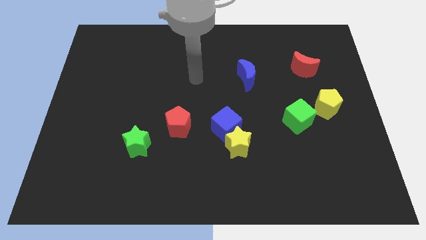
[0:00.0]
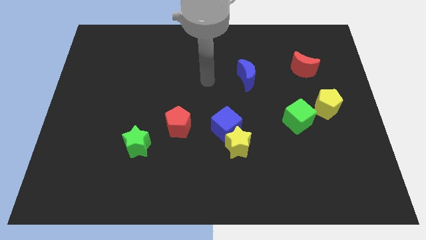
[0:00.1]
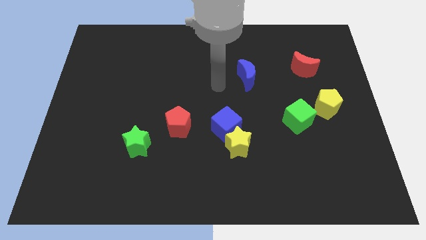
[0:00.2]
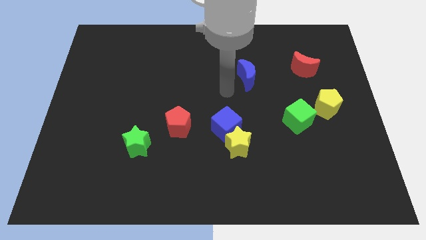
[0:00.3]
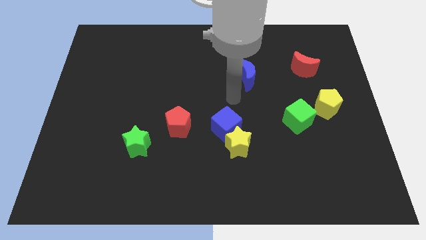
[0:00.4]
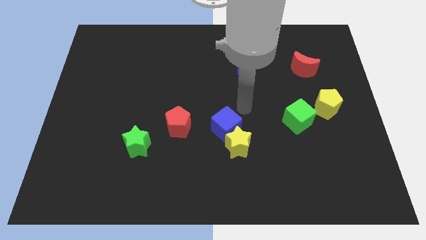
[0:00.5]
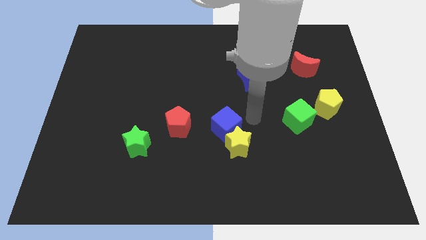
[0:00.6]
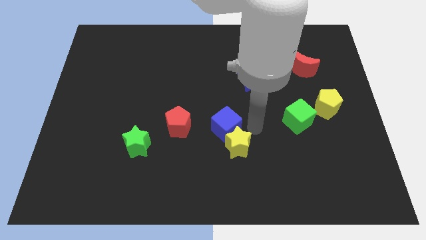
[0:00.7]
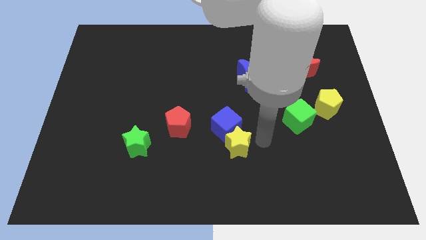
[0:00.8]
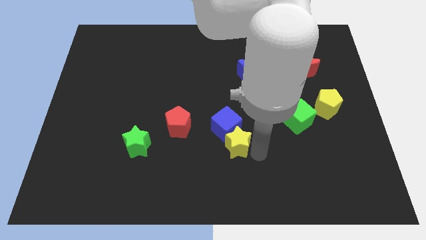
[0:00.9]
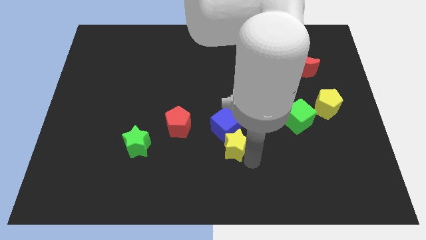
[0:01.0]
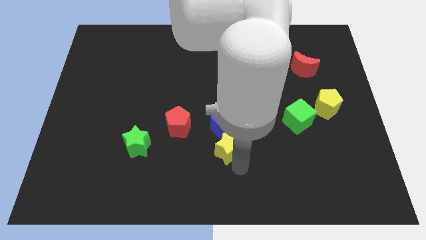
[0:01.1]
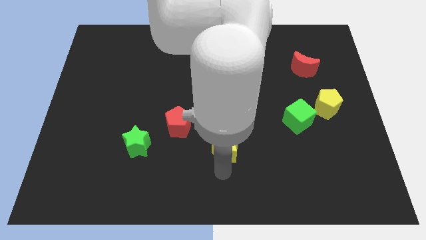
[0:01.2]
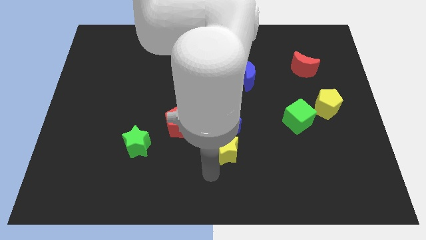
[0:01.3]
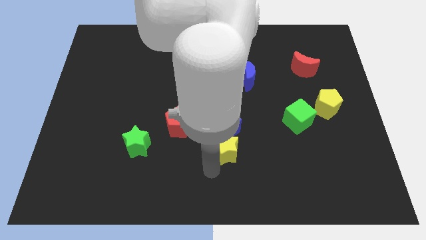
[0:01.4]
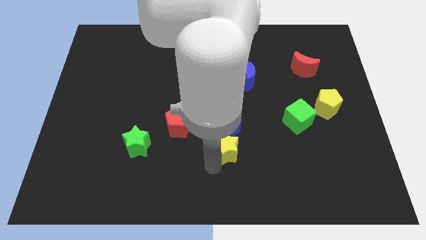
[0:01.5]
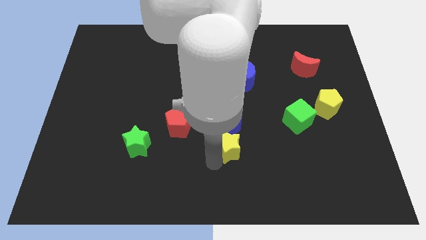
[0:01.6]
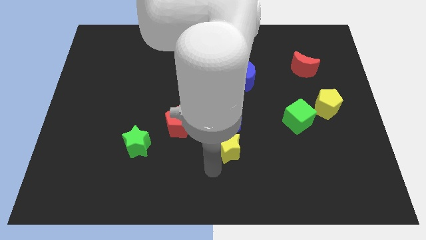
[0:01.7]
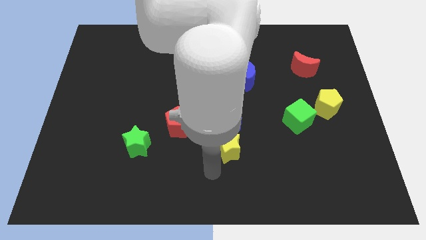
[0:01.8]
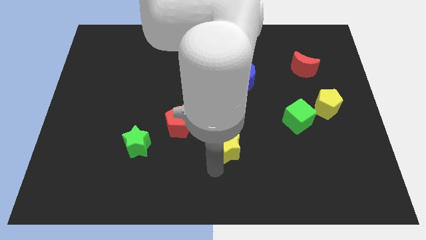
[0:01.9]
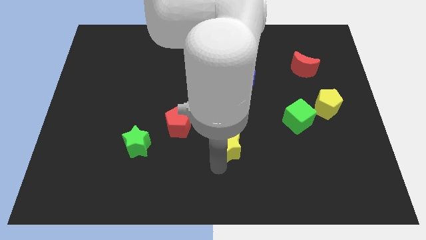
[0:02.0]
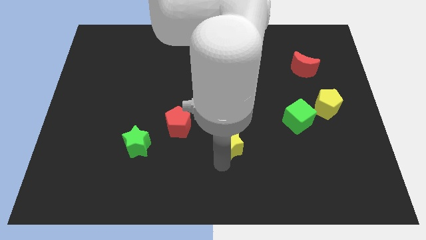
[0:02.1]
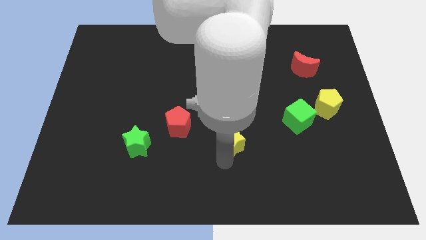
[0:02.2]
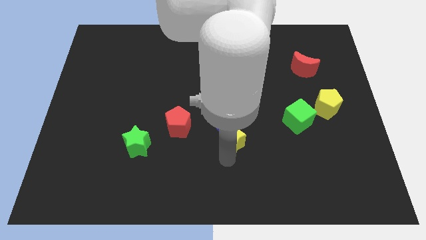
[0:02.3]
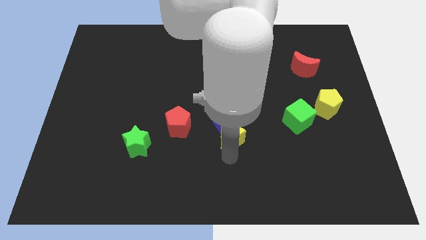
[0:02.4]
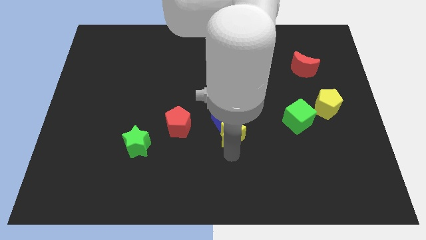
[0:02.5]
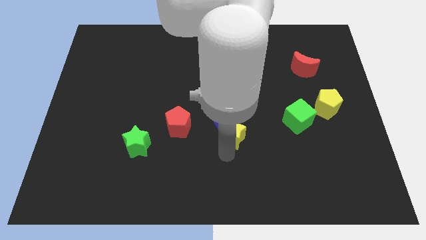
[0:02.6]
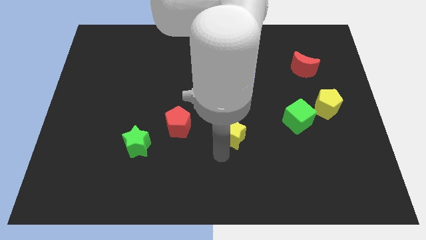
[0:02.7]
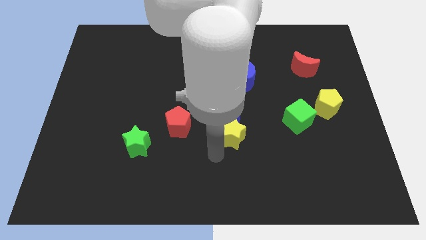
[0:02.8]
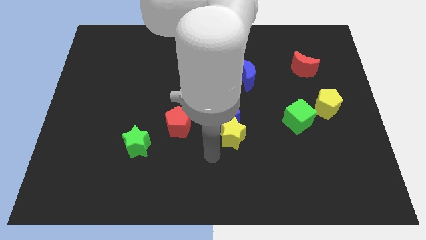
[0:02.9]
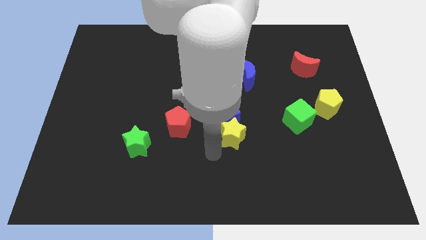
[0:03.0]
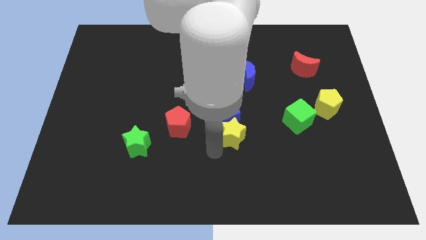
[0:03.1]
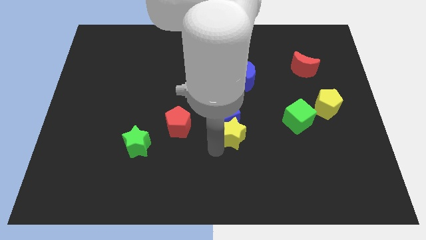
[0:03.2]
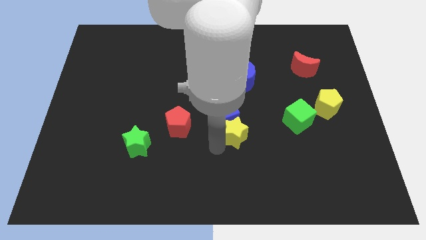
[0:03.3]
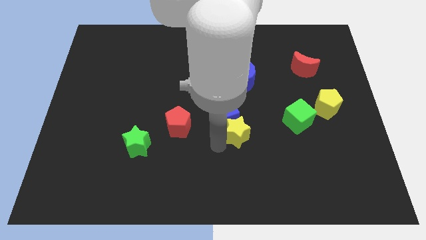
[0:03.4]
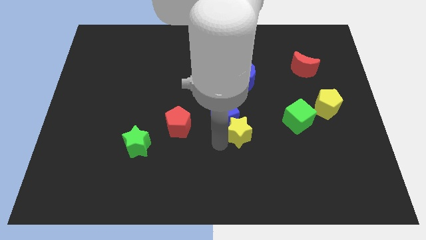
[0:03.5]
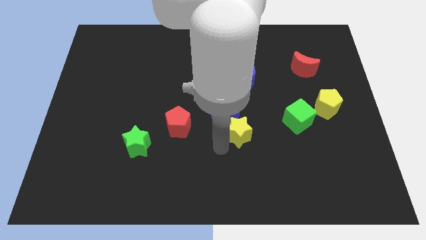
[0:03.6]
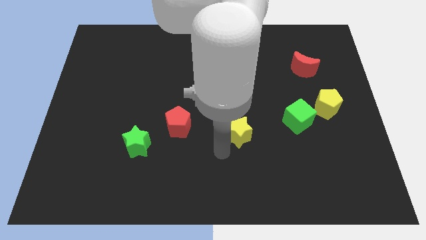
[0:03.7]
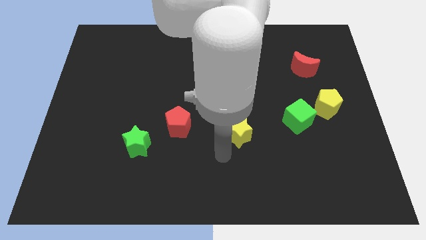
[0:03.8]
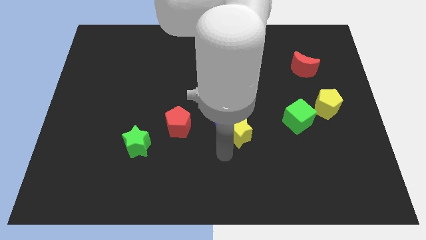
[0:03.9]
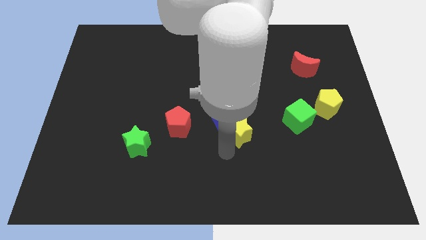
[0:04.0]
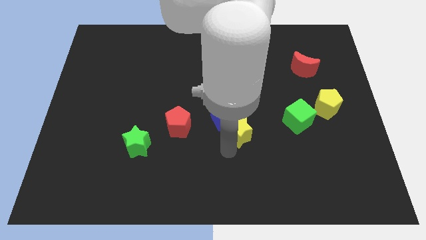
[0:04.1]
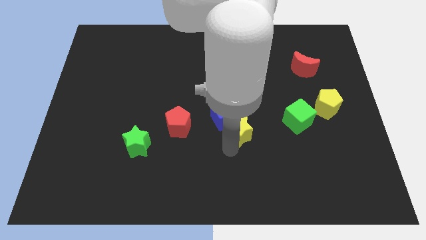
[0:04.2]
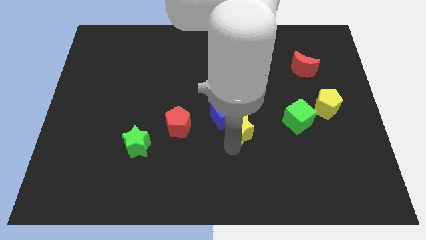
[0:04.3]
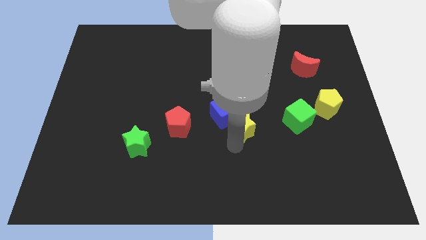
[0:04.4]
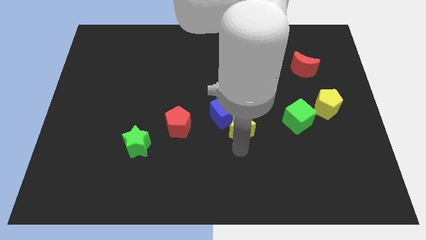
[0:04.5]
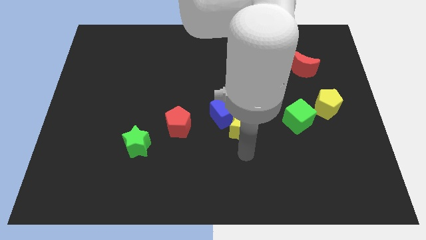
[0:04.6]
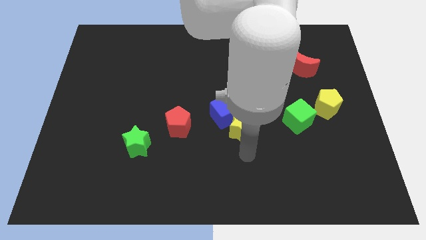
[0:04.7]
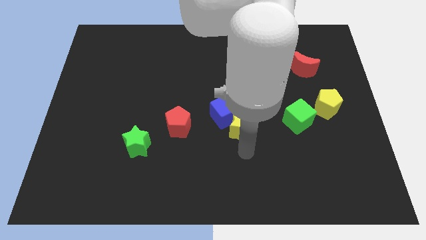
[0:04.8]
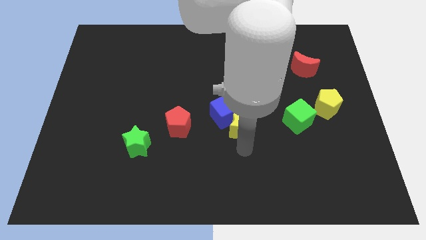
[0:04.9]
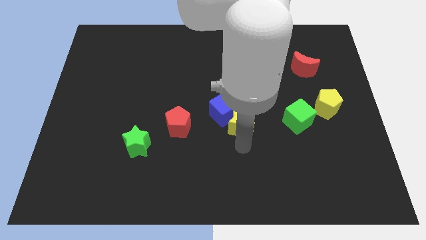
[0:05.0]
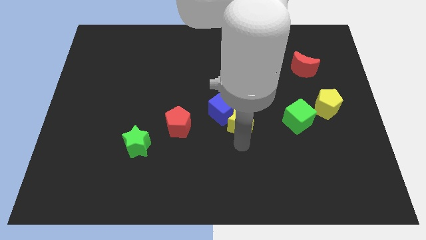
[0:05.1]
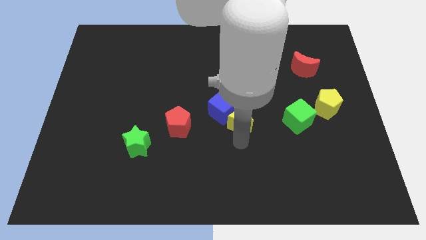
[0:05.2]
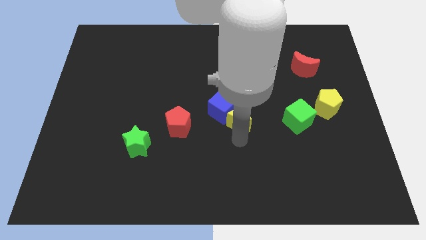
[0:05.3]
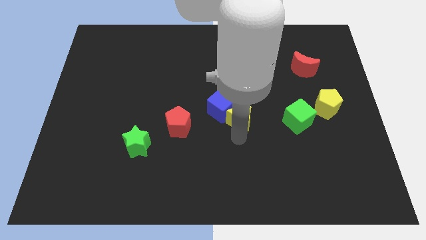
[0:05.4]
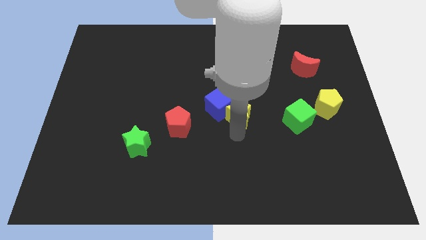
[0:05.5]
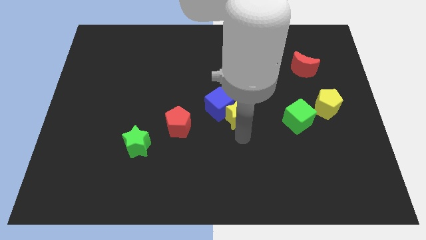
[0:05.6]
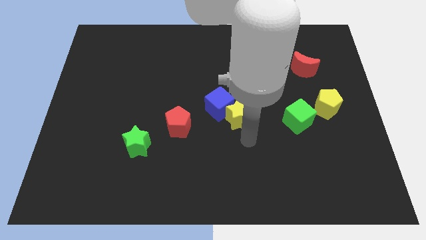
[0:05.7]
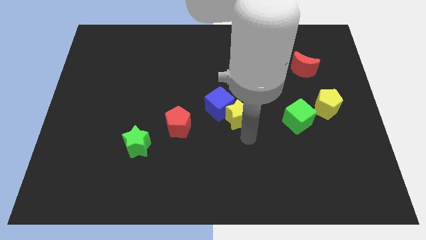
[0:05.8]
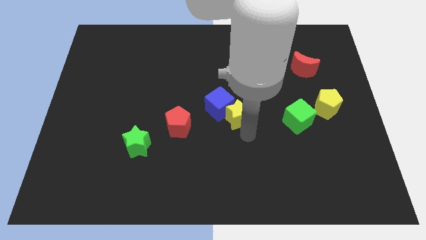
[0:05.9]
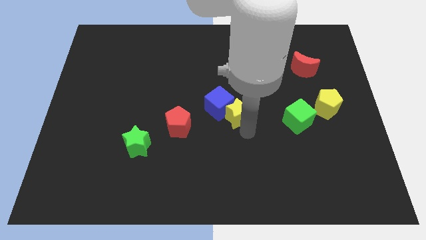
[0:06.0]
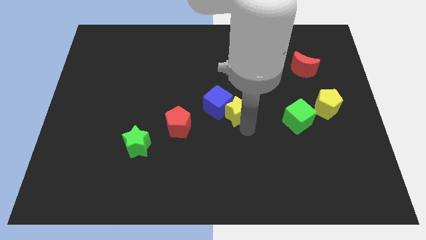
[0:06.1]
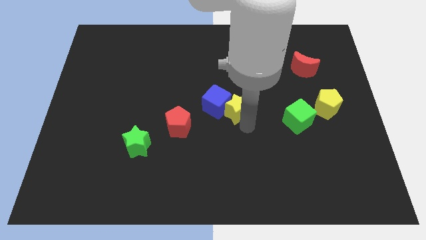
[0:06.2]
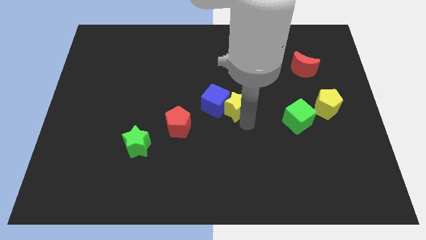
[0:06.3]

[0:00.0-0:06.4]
slide the yellow star diagonally down and to the left of the blue moon
